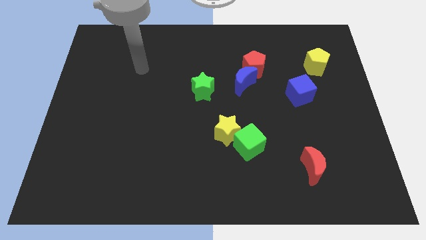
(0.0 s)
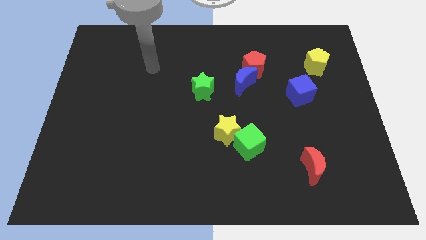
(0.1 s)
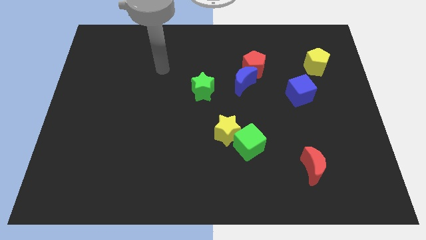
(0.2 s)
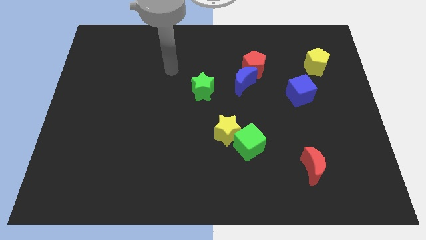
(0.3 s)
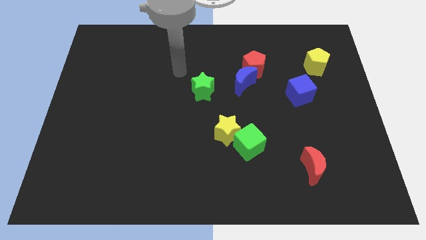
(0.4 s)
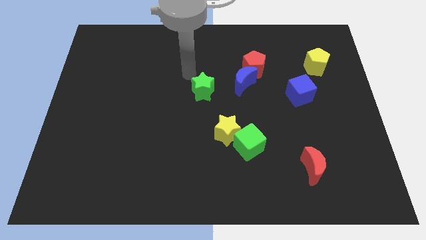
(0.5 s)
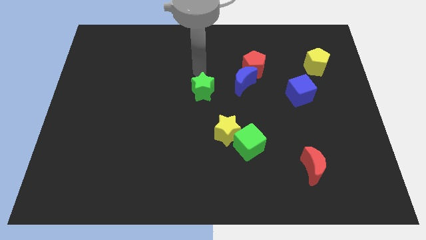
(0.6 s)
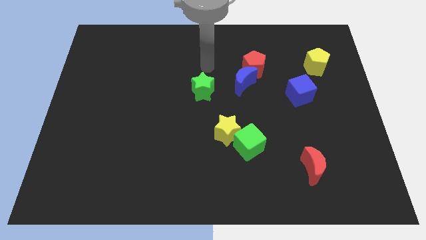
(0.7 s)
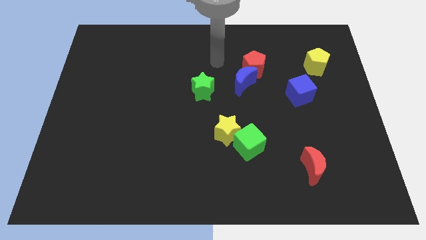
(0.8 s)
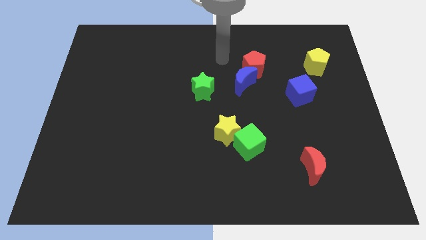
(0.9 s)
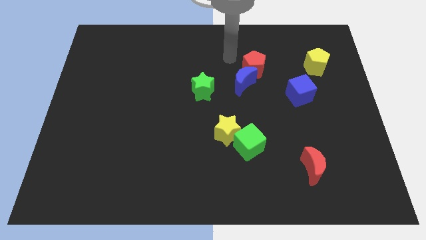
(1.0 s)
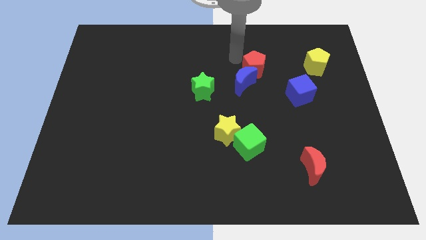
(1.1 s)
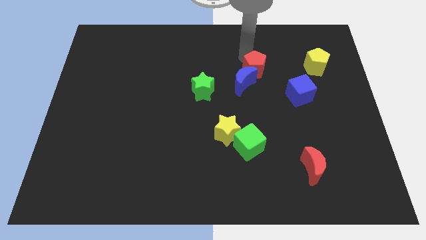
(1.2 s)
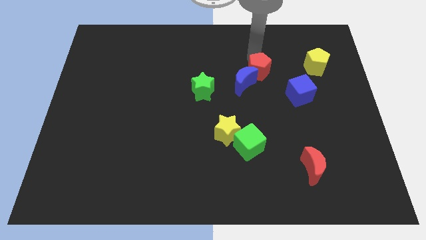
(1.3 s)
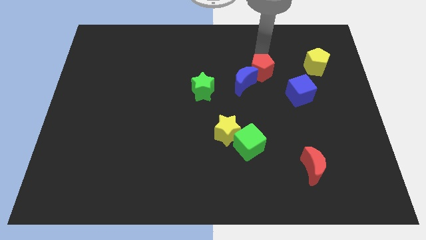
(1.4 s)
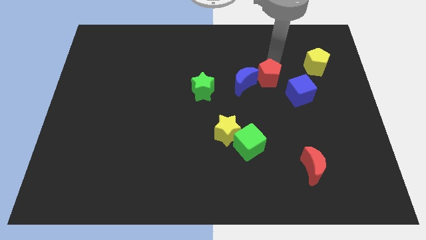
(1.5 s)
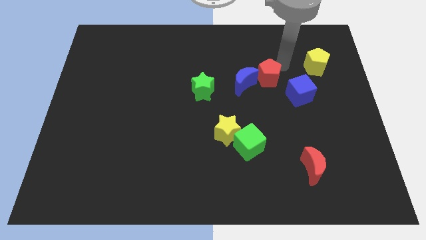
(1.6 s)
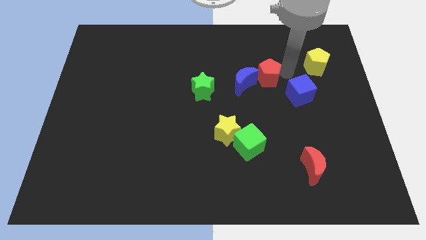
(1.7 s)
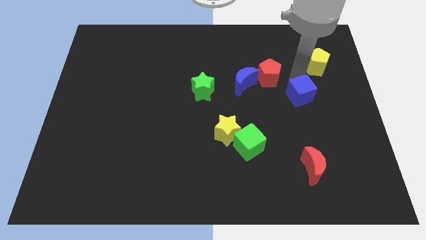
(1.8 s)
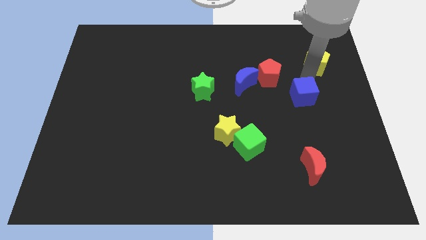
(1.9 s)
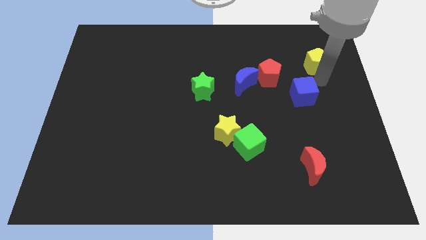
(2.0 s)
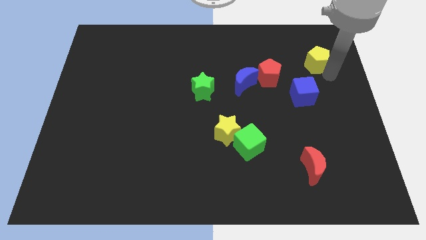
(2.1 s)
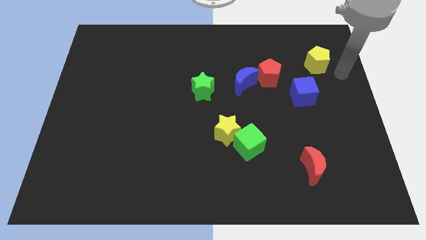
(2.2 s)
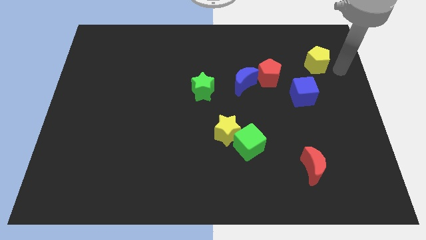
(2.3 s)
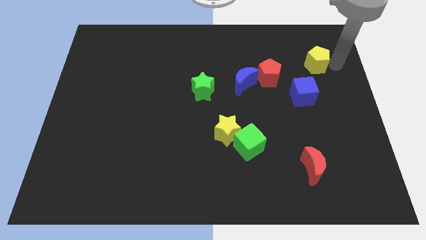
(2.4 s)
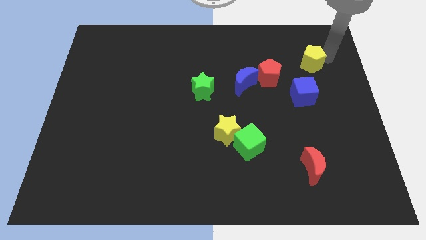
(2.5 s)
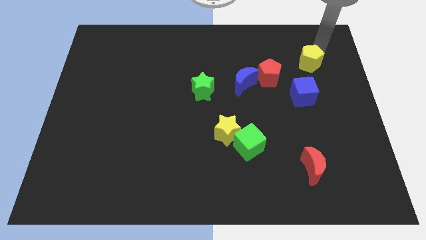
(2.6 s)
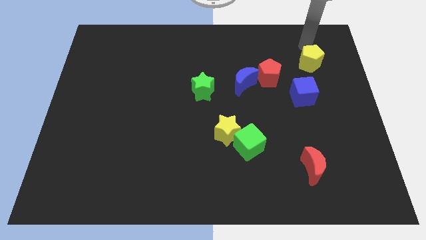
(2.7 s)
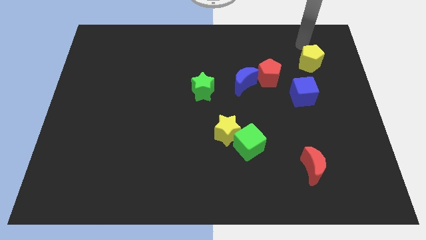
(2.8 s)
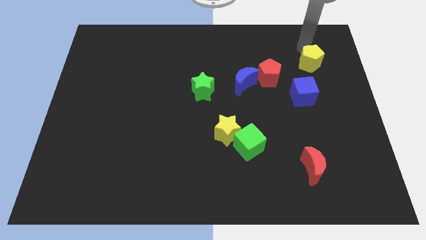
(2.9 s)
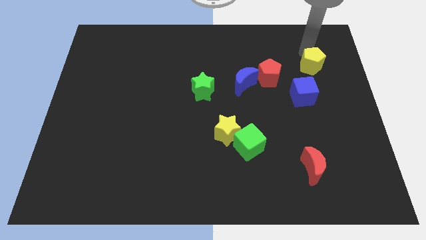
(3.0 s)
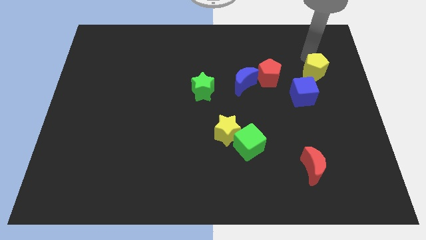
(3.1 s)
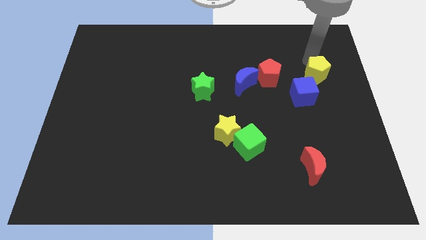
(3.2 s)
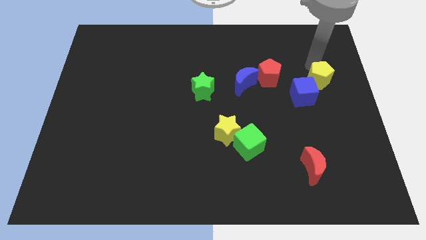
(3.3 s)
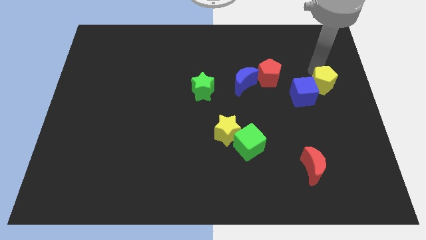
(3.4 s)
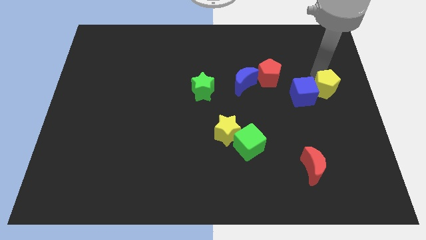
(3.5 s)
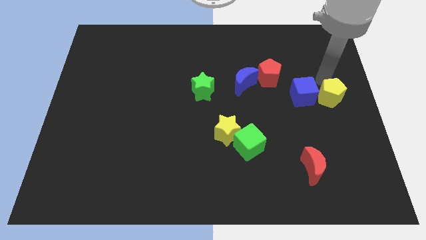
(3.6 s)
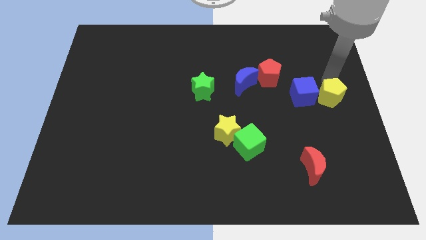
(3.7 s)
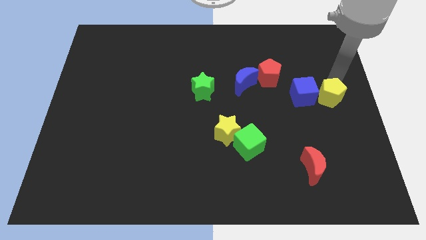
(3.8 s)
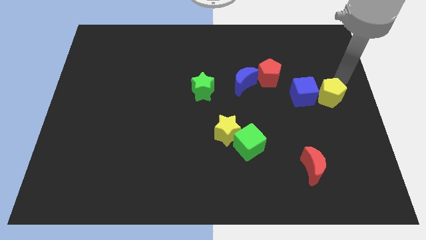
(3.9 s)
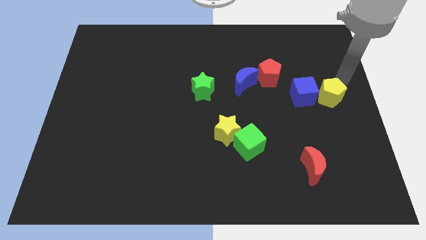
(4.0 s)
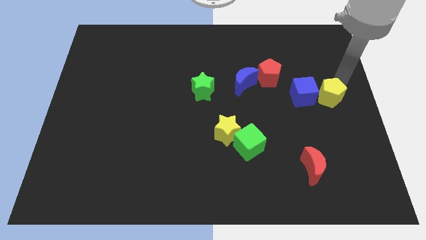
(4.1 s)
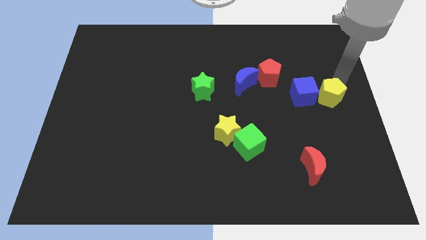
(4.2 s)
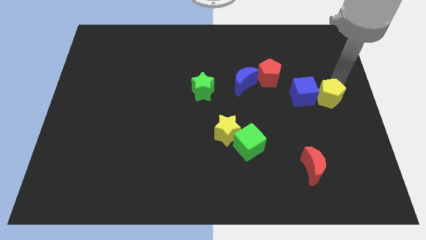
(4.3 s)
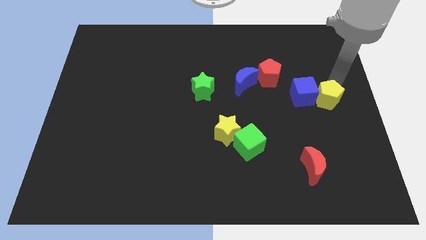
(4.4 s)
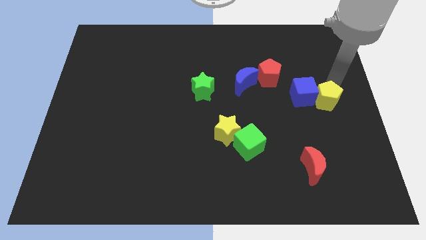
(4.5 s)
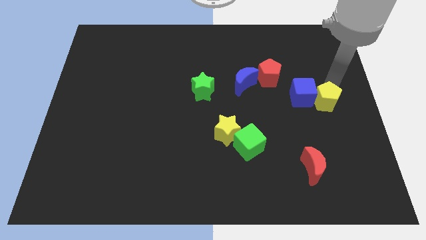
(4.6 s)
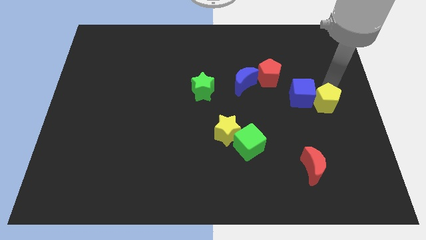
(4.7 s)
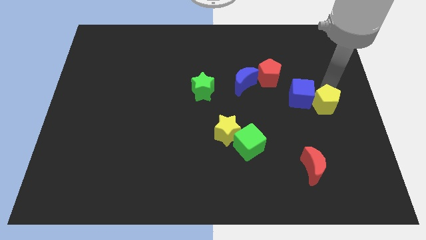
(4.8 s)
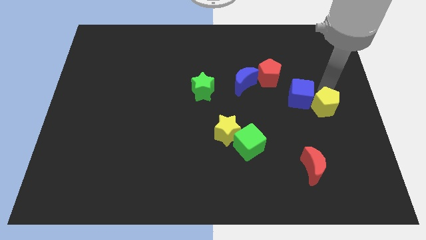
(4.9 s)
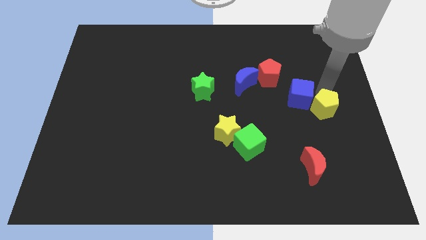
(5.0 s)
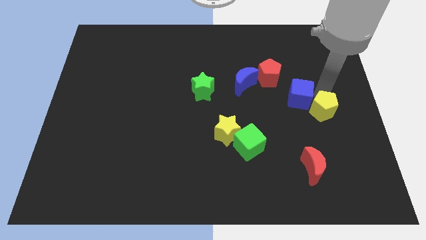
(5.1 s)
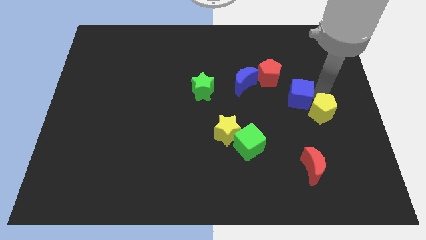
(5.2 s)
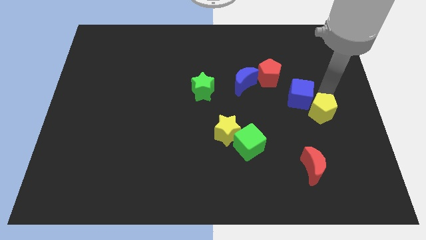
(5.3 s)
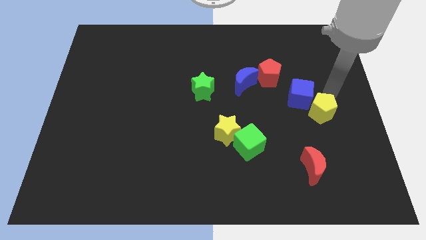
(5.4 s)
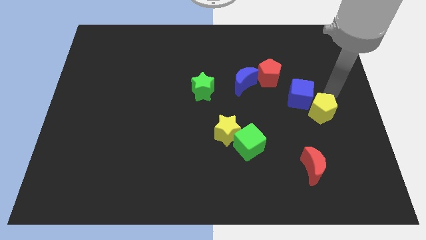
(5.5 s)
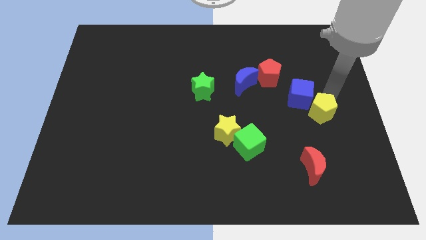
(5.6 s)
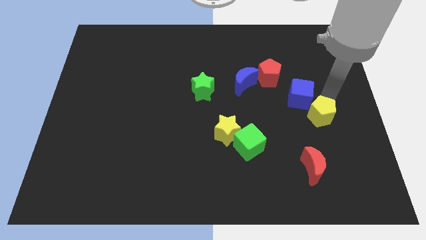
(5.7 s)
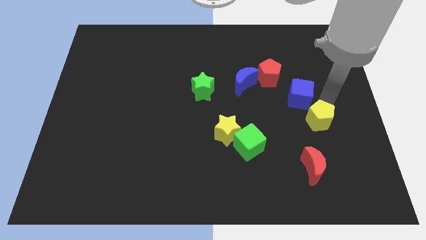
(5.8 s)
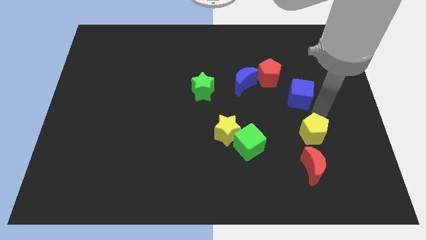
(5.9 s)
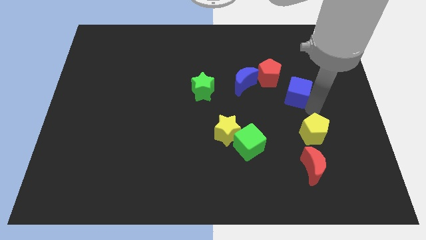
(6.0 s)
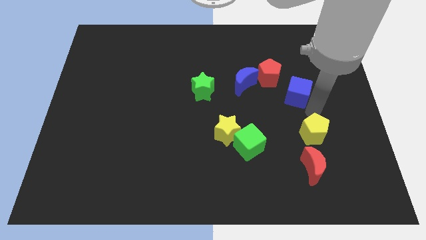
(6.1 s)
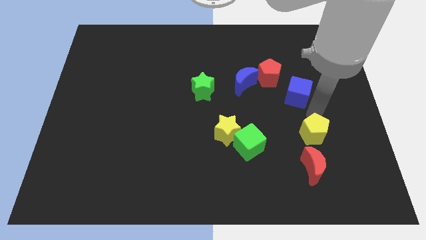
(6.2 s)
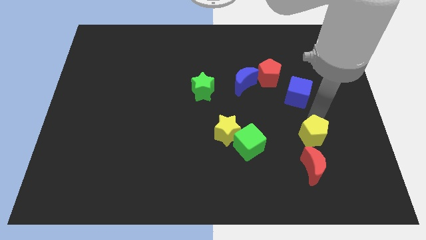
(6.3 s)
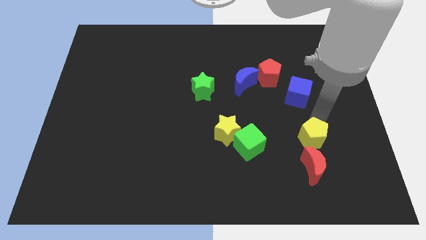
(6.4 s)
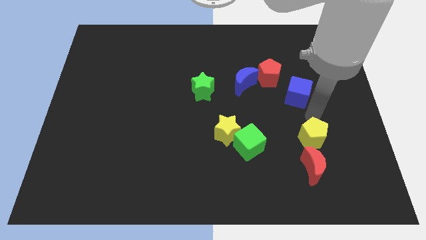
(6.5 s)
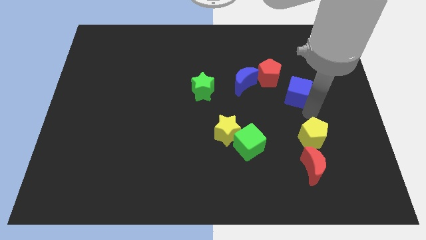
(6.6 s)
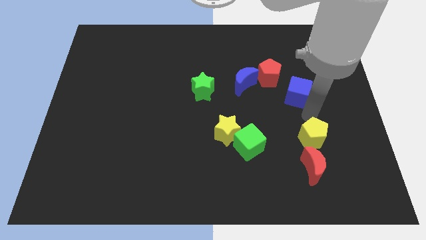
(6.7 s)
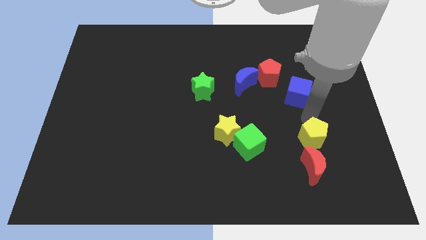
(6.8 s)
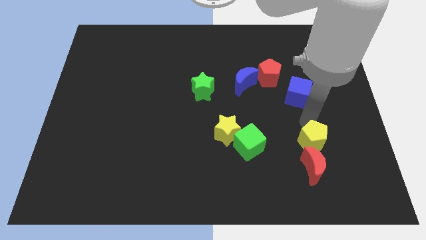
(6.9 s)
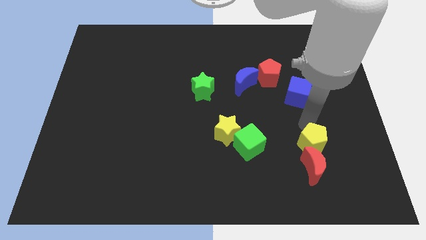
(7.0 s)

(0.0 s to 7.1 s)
slide the yellow pentagon next to the red moon
